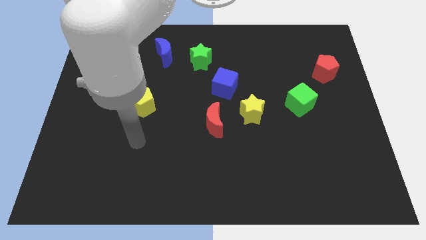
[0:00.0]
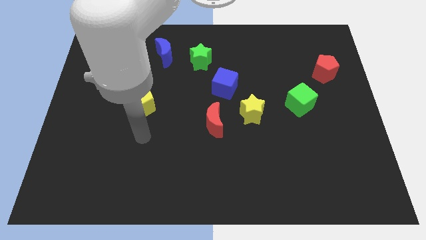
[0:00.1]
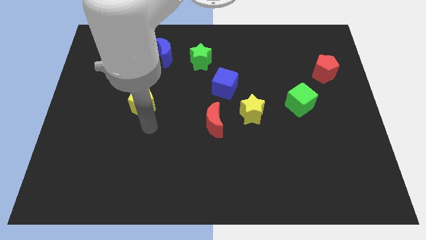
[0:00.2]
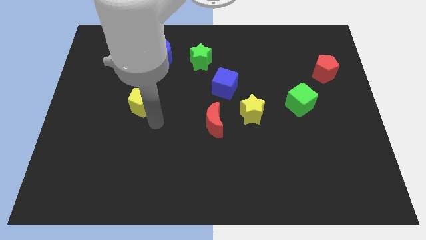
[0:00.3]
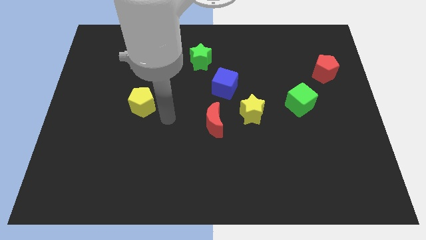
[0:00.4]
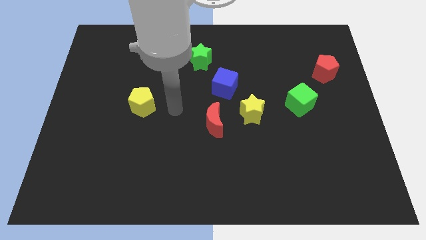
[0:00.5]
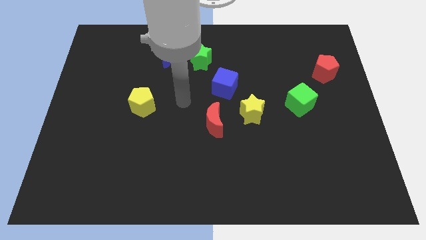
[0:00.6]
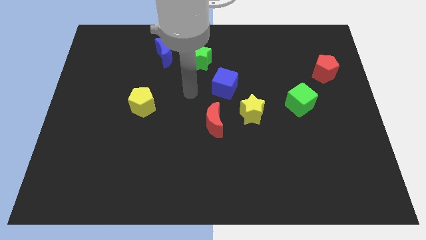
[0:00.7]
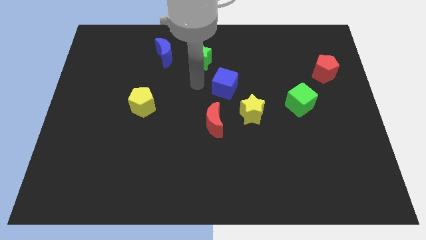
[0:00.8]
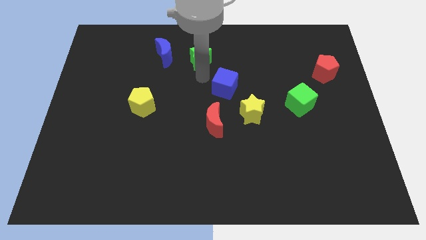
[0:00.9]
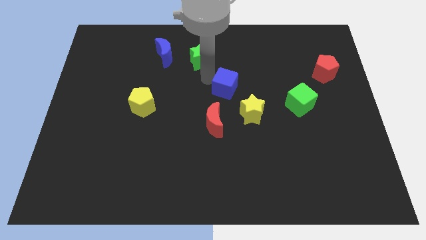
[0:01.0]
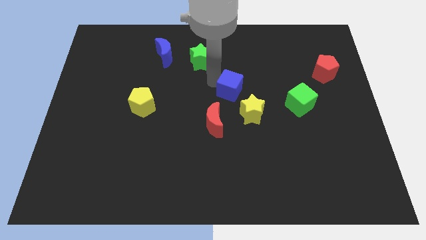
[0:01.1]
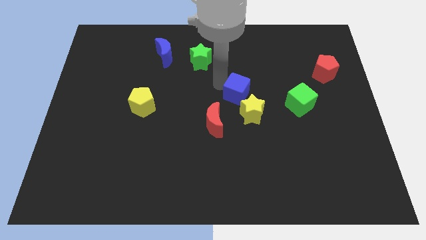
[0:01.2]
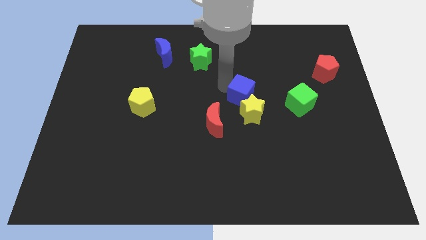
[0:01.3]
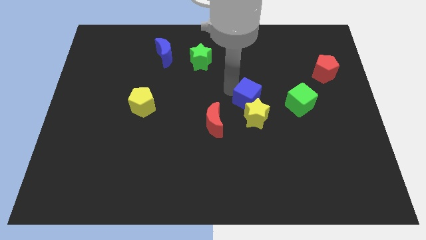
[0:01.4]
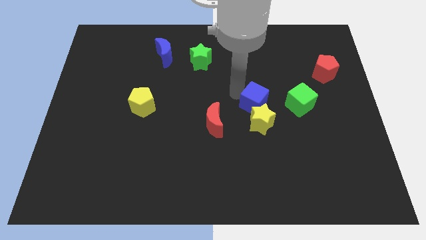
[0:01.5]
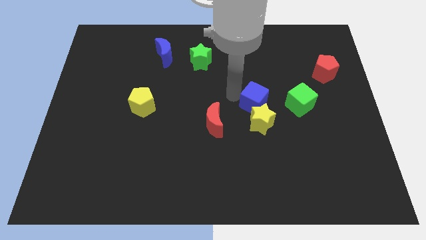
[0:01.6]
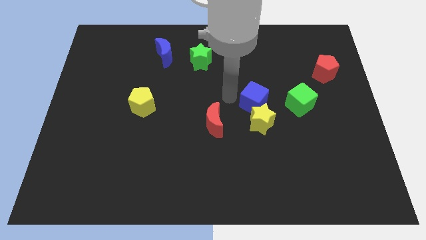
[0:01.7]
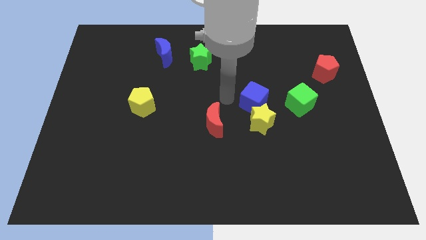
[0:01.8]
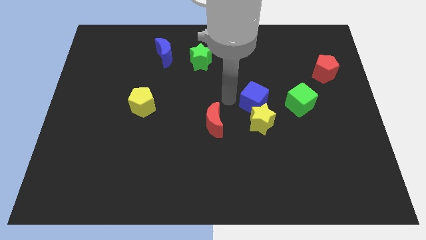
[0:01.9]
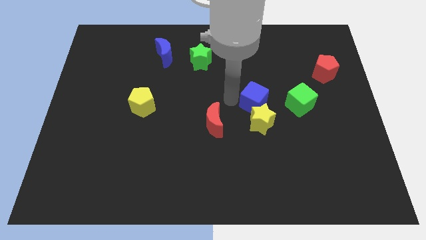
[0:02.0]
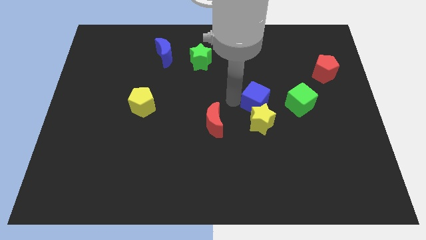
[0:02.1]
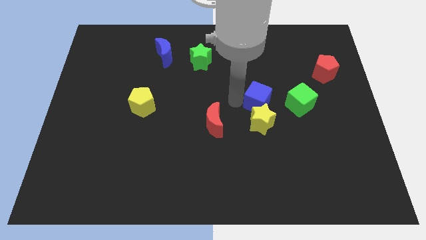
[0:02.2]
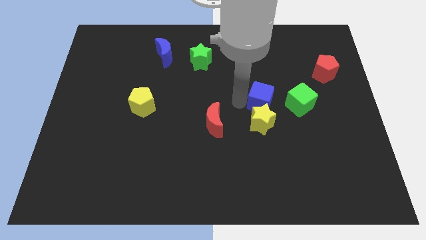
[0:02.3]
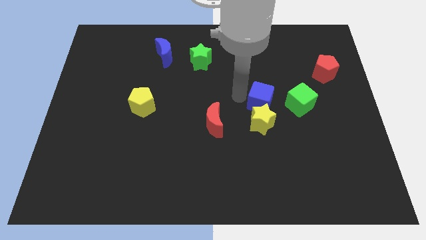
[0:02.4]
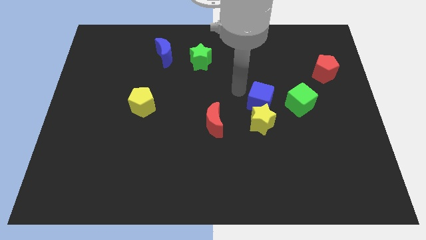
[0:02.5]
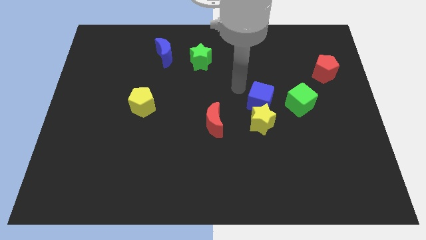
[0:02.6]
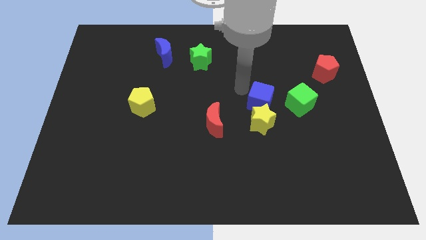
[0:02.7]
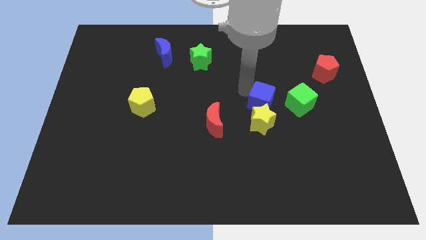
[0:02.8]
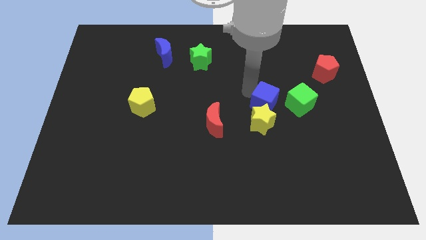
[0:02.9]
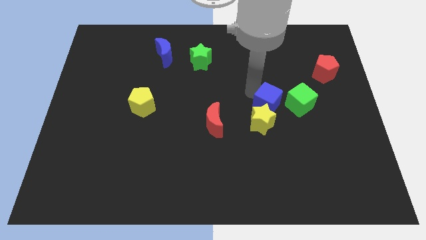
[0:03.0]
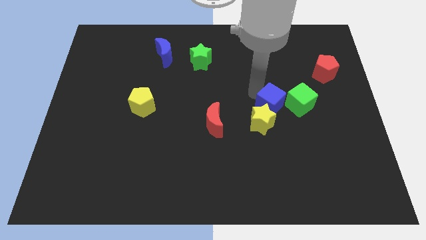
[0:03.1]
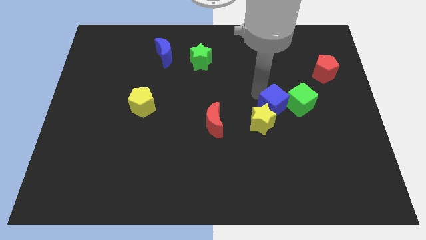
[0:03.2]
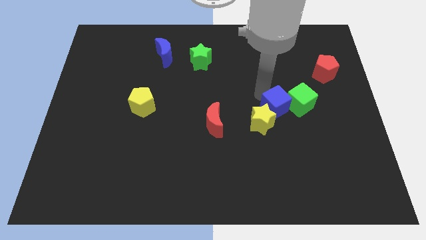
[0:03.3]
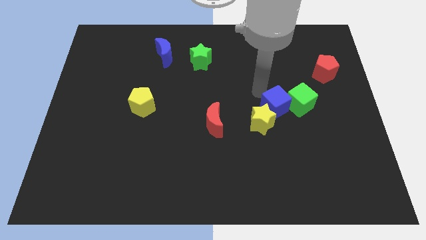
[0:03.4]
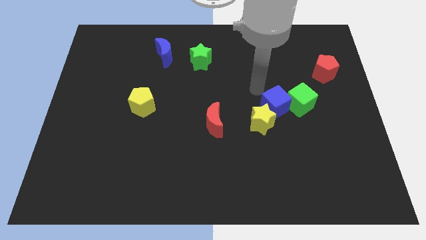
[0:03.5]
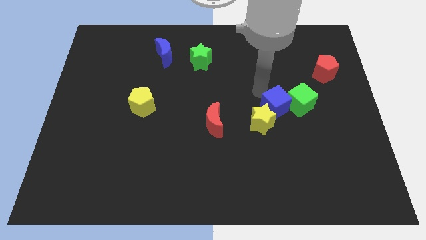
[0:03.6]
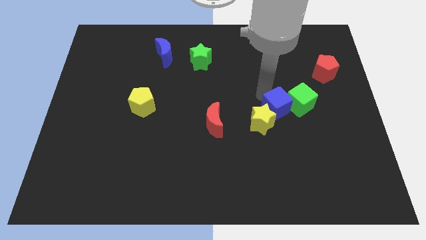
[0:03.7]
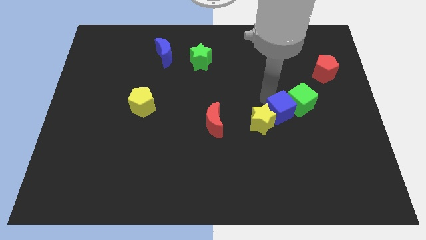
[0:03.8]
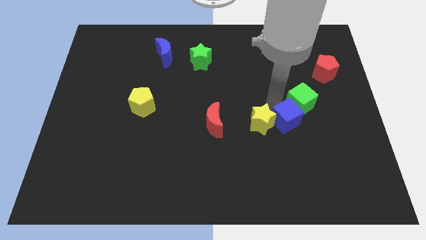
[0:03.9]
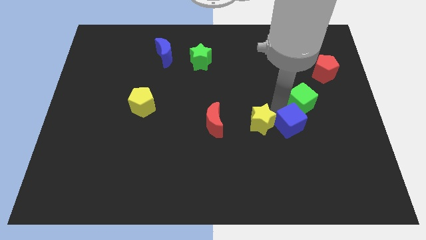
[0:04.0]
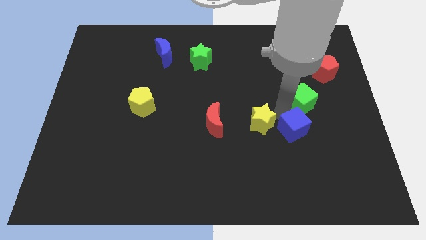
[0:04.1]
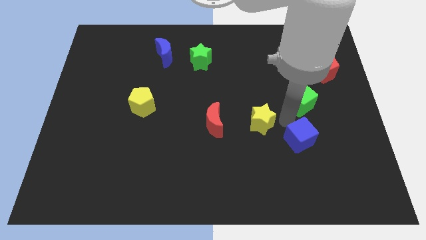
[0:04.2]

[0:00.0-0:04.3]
slide the blue cube down and right

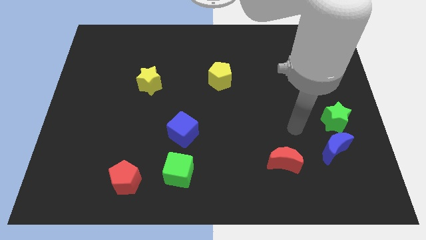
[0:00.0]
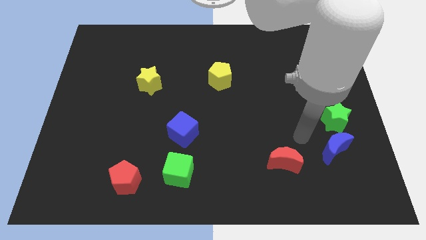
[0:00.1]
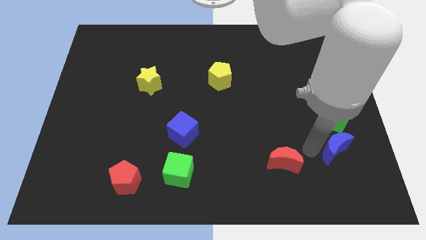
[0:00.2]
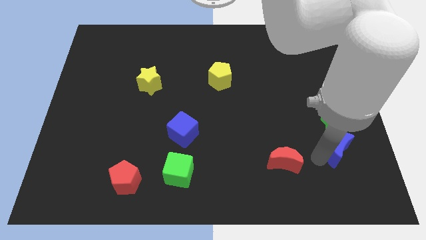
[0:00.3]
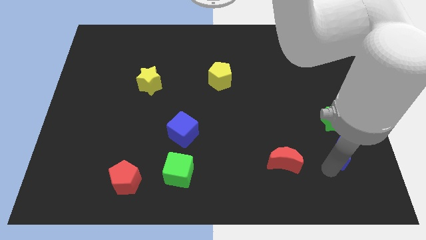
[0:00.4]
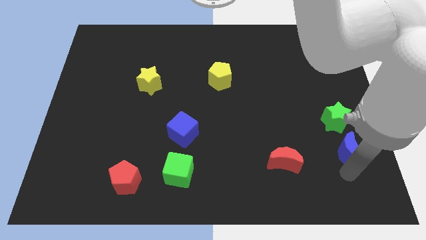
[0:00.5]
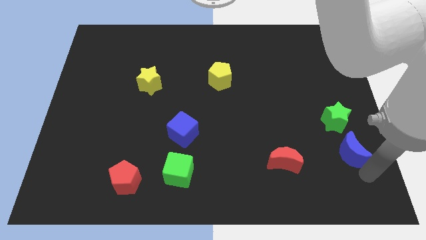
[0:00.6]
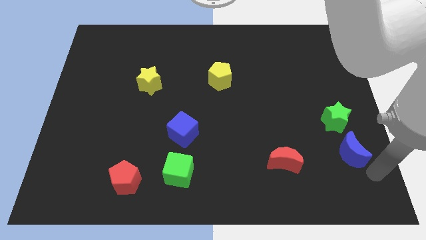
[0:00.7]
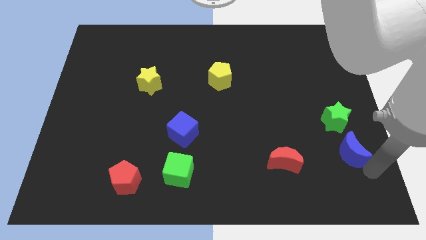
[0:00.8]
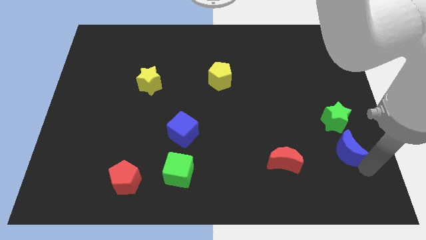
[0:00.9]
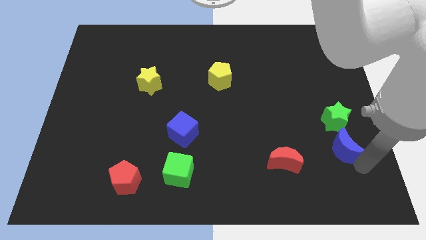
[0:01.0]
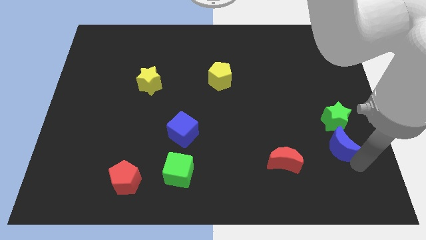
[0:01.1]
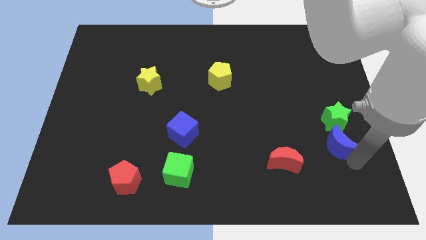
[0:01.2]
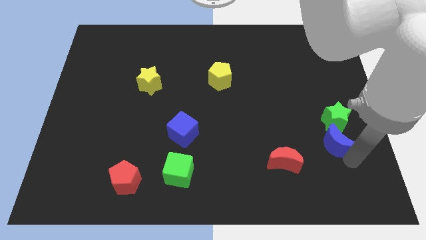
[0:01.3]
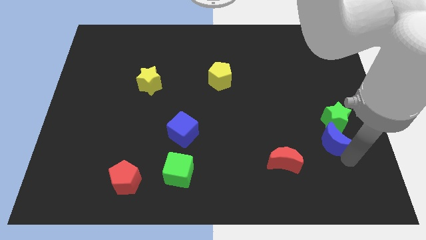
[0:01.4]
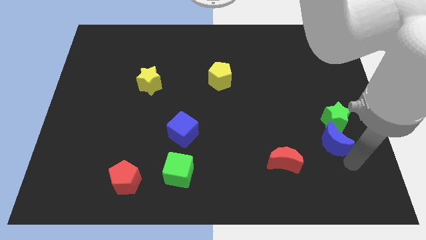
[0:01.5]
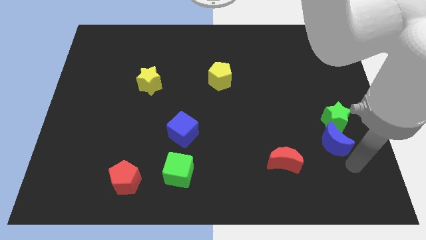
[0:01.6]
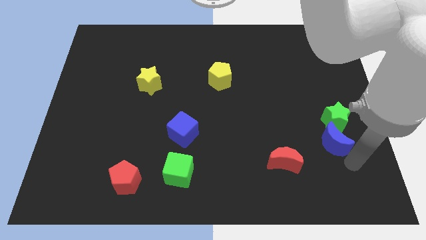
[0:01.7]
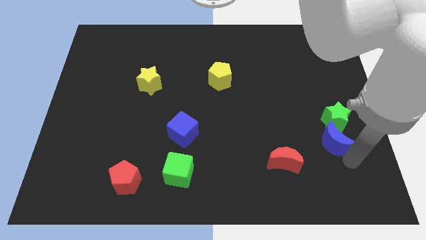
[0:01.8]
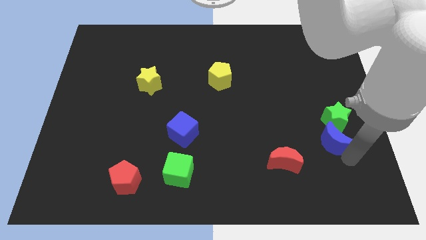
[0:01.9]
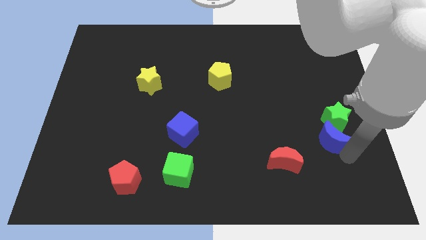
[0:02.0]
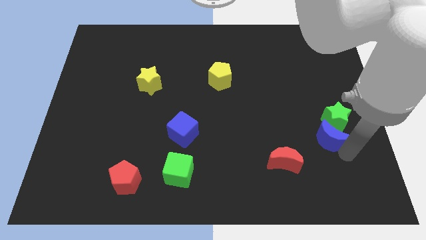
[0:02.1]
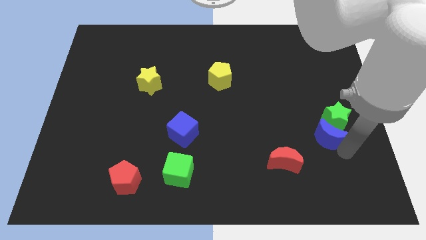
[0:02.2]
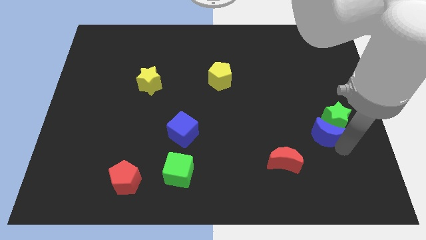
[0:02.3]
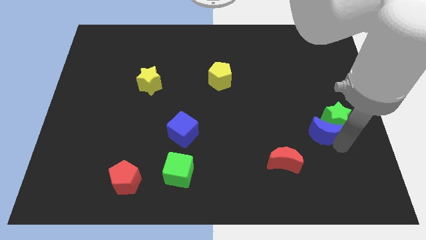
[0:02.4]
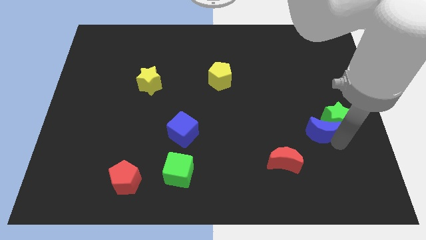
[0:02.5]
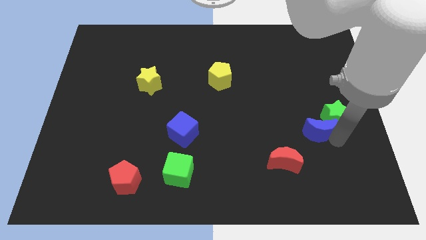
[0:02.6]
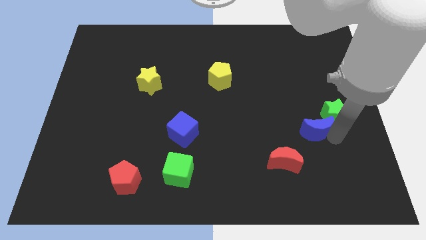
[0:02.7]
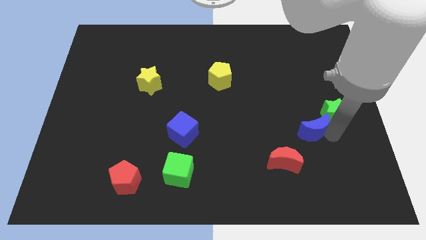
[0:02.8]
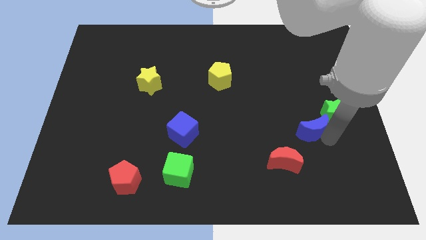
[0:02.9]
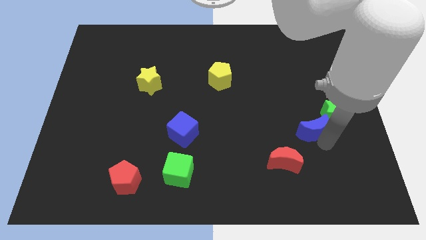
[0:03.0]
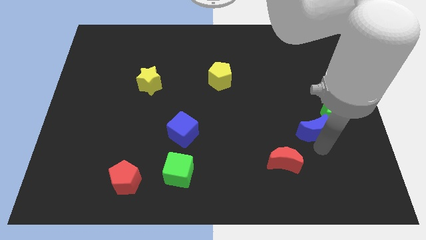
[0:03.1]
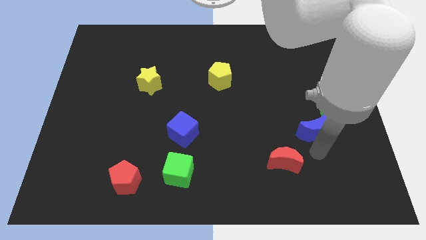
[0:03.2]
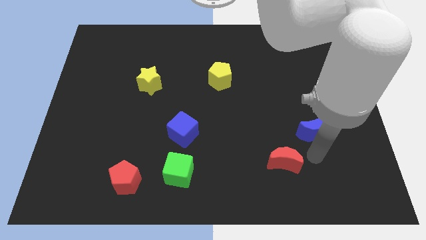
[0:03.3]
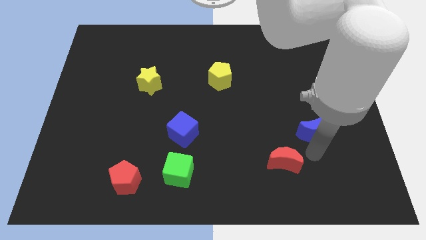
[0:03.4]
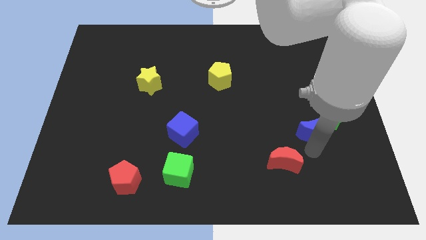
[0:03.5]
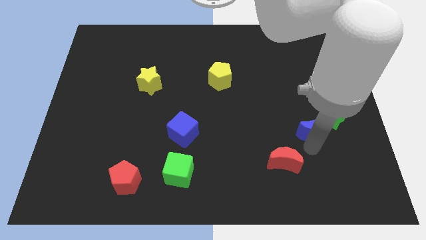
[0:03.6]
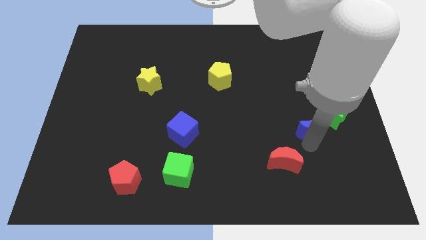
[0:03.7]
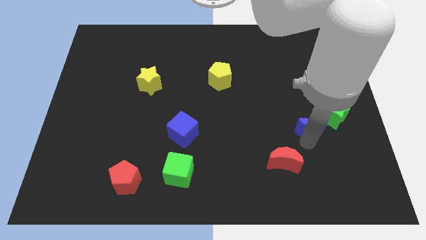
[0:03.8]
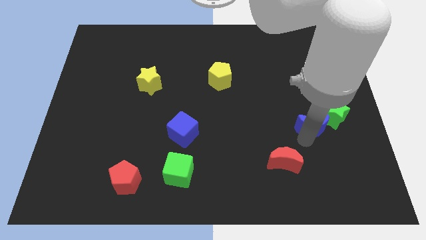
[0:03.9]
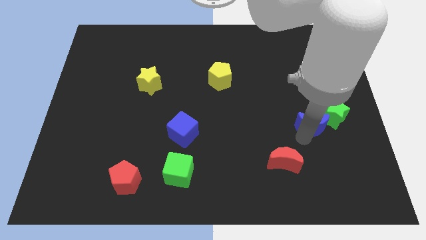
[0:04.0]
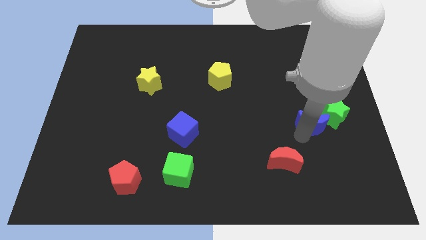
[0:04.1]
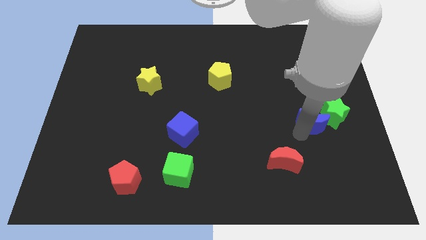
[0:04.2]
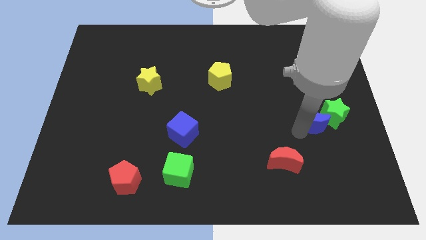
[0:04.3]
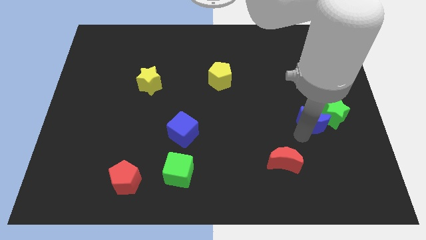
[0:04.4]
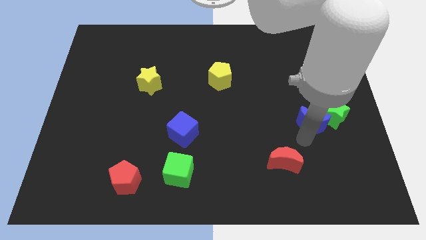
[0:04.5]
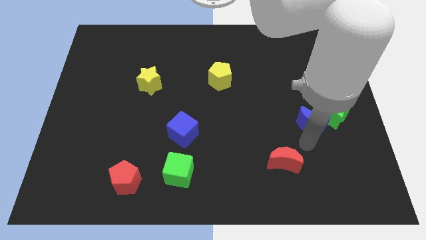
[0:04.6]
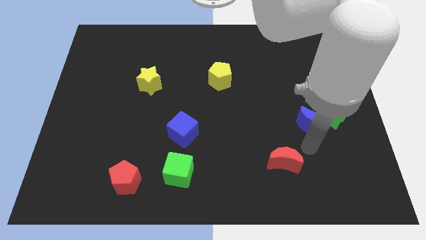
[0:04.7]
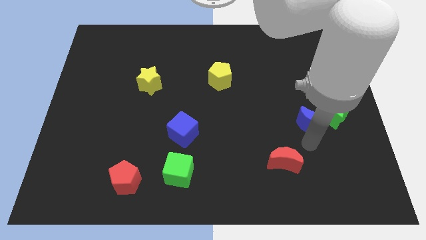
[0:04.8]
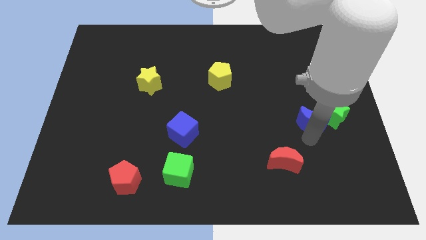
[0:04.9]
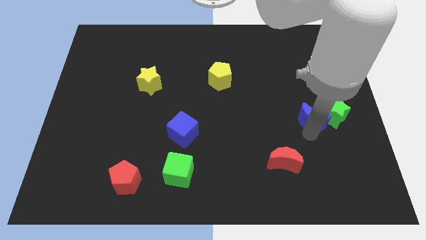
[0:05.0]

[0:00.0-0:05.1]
slightly push the blue moon upwards
